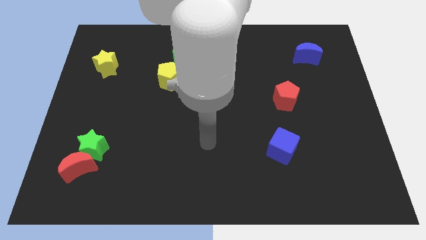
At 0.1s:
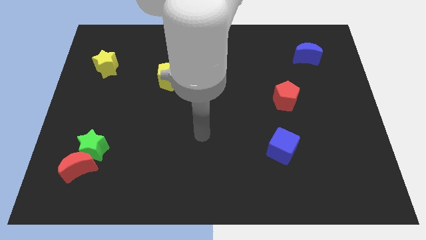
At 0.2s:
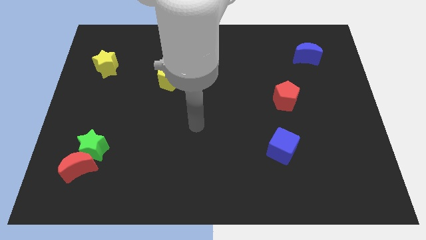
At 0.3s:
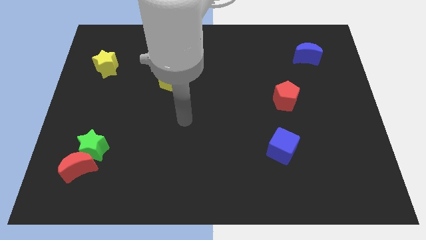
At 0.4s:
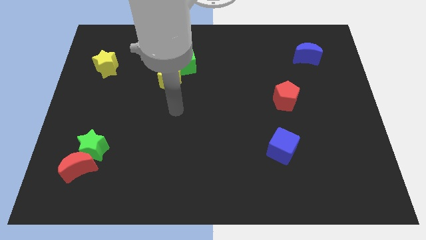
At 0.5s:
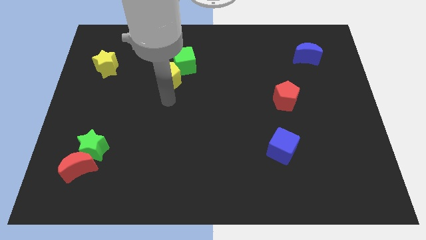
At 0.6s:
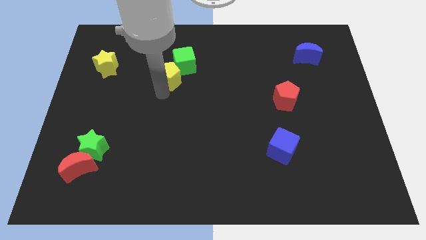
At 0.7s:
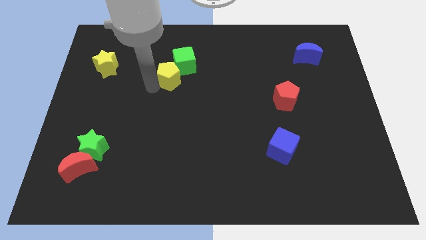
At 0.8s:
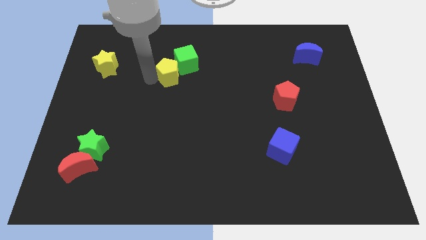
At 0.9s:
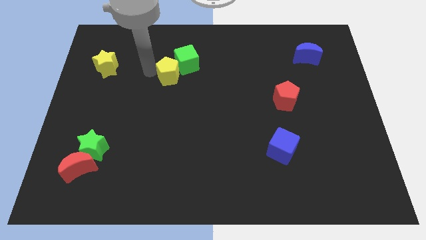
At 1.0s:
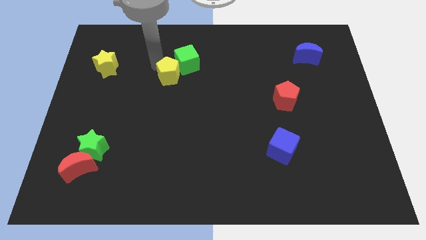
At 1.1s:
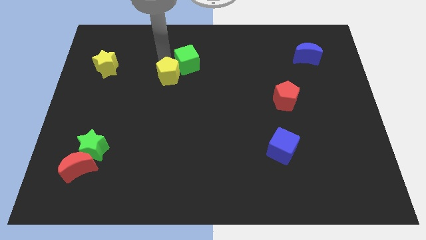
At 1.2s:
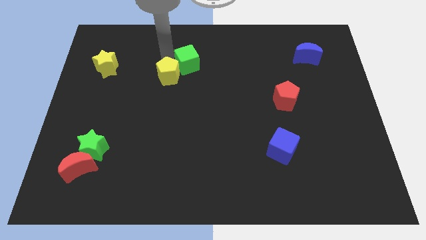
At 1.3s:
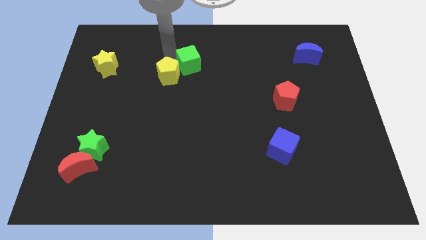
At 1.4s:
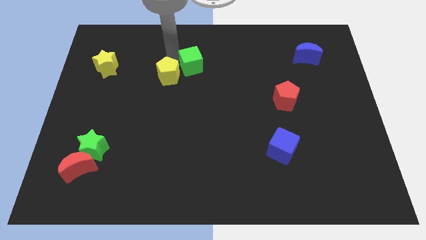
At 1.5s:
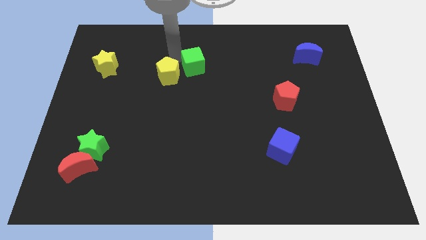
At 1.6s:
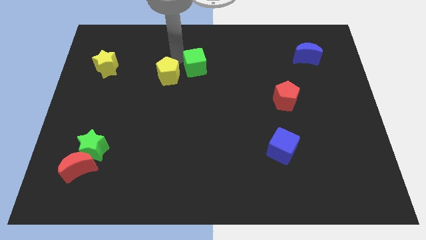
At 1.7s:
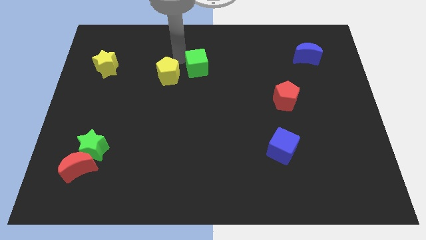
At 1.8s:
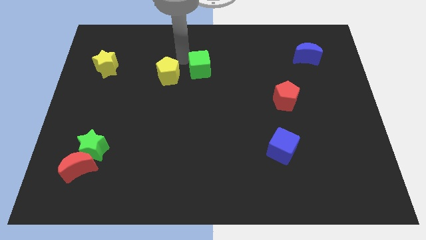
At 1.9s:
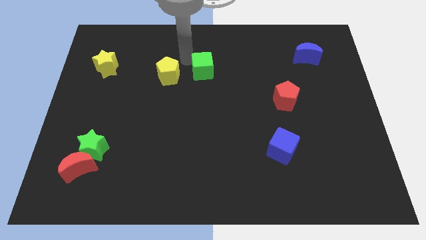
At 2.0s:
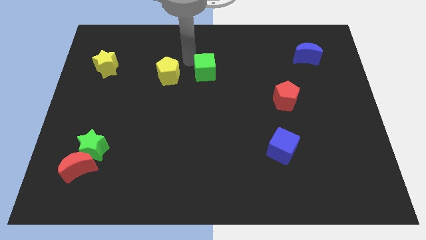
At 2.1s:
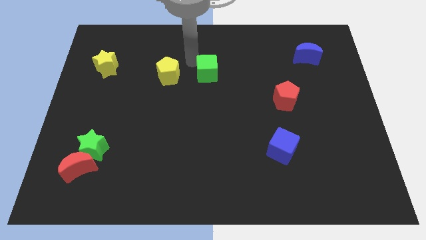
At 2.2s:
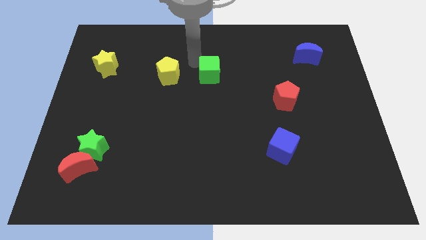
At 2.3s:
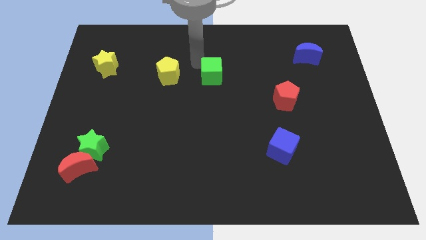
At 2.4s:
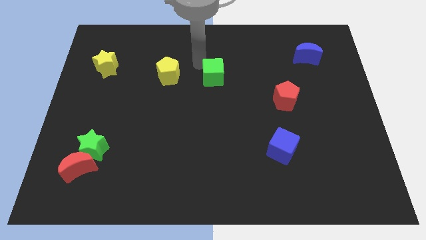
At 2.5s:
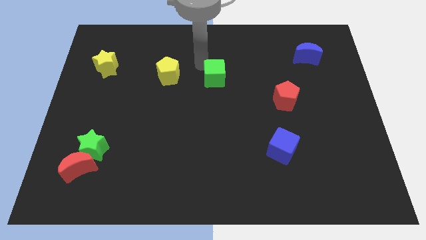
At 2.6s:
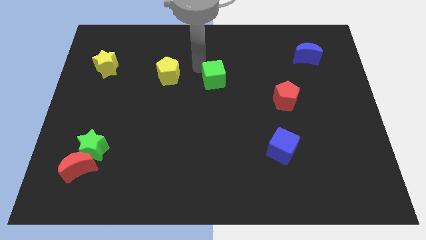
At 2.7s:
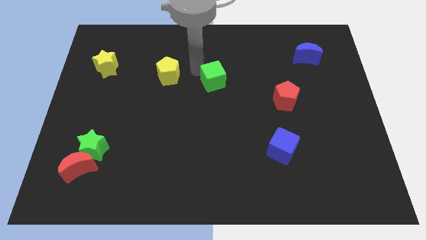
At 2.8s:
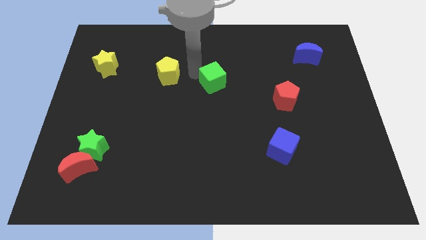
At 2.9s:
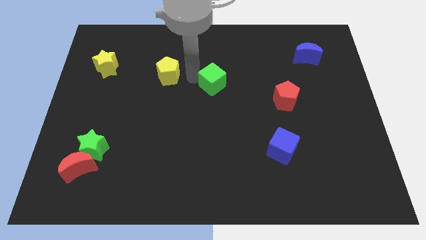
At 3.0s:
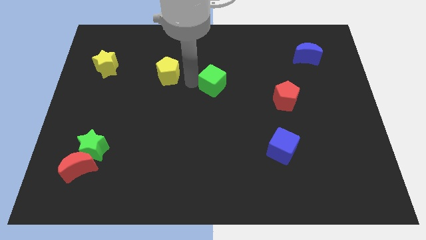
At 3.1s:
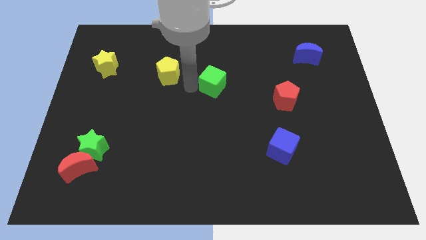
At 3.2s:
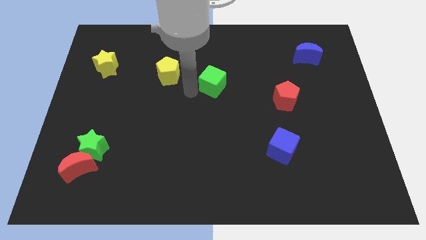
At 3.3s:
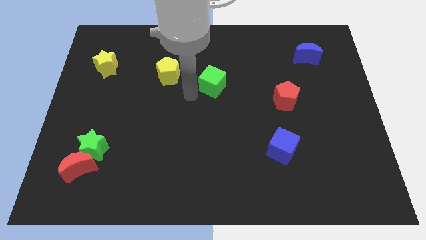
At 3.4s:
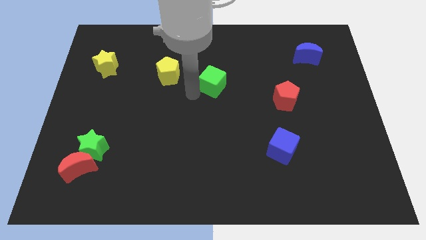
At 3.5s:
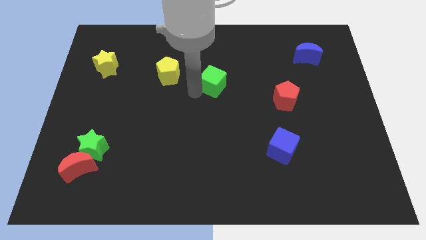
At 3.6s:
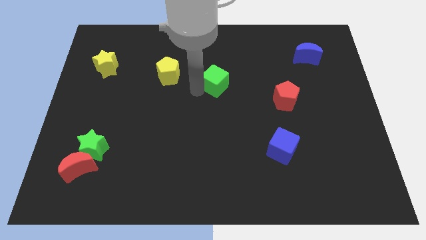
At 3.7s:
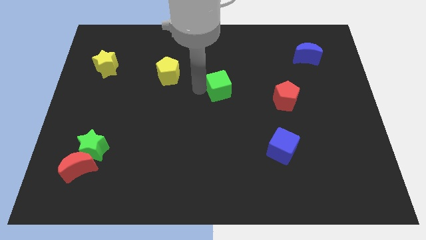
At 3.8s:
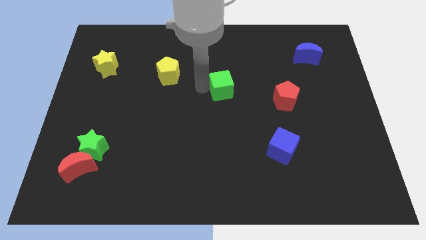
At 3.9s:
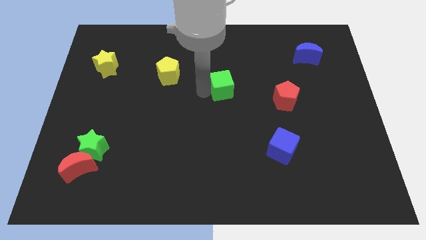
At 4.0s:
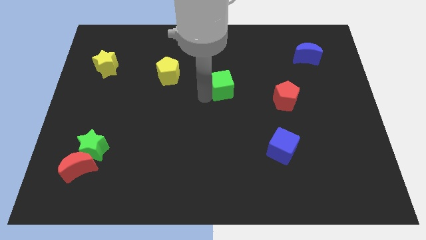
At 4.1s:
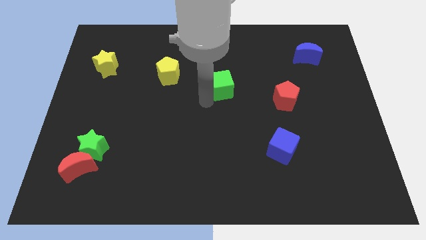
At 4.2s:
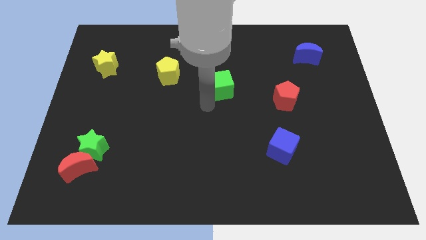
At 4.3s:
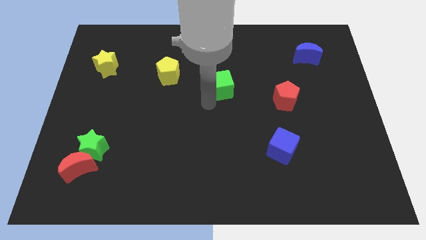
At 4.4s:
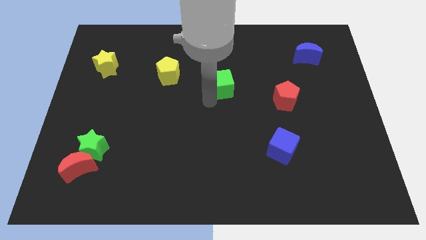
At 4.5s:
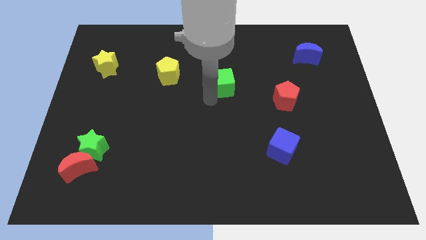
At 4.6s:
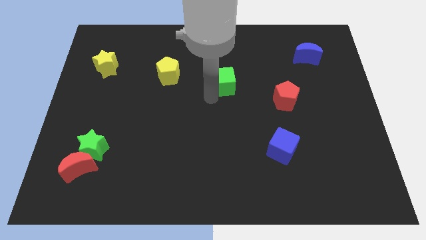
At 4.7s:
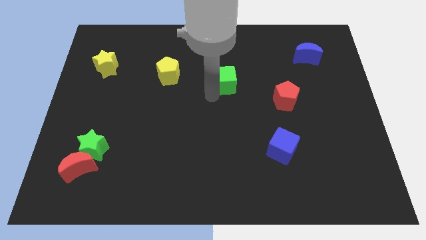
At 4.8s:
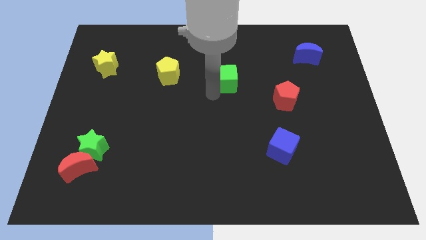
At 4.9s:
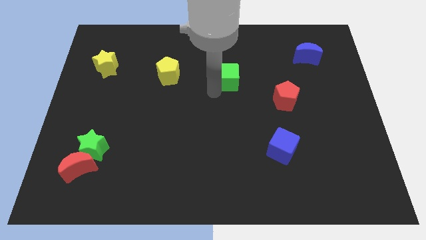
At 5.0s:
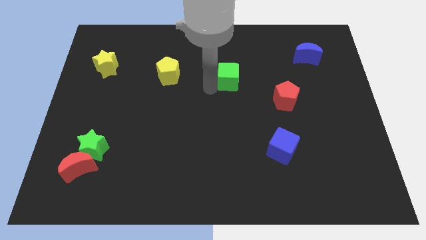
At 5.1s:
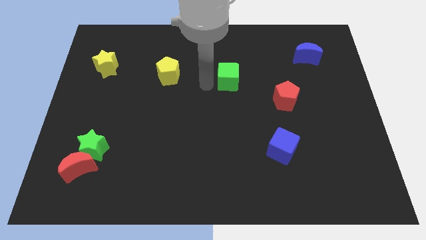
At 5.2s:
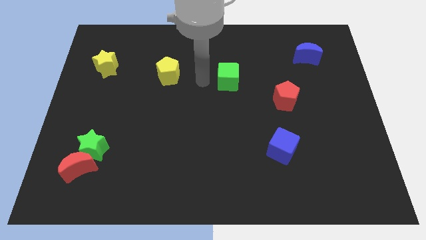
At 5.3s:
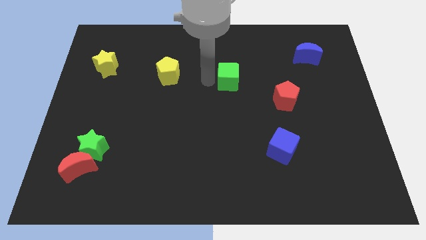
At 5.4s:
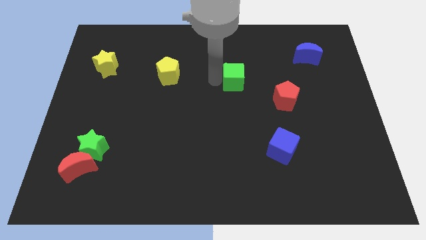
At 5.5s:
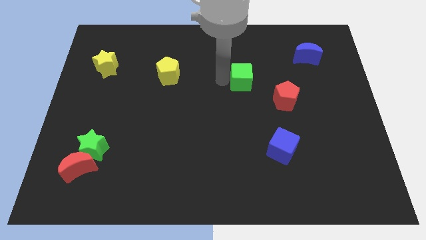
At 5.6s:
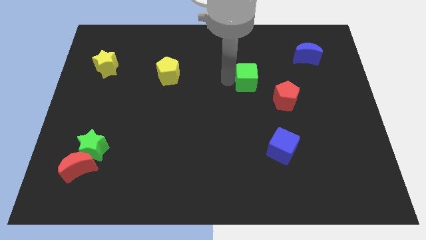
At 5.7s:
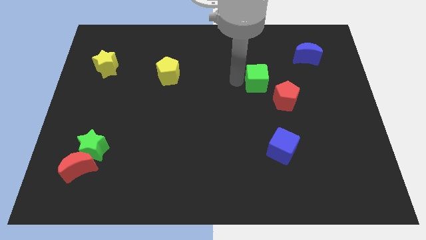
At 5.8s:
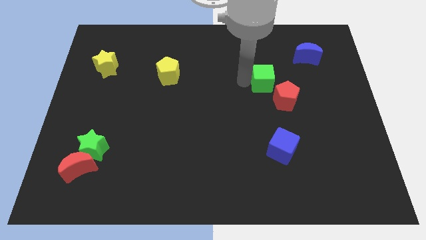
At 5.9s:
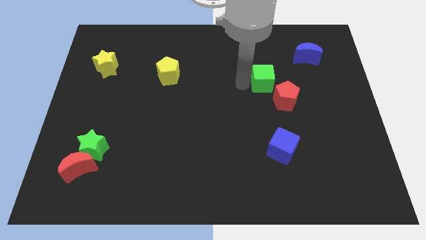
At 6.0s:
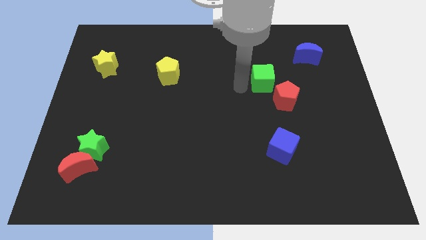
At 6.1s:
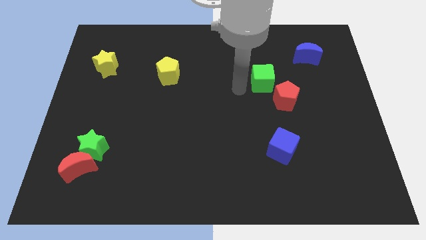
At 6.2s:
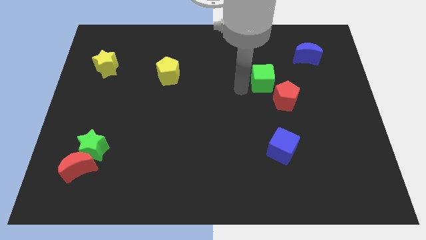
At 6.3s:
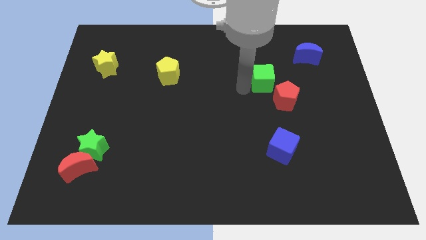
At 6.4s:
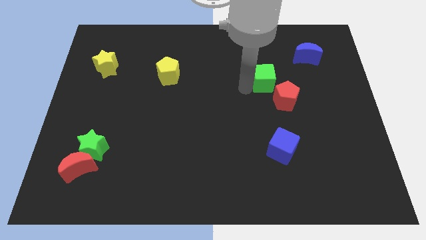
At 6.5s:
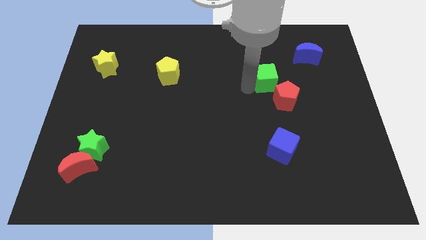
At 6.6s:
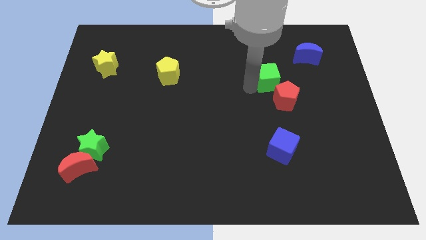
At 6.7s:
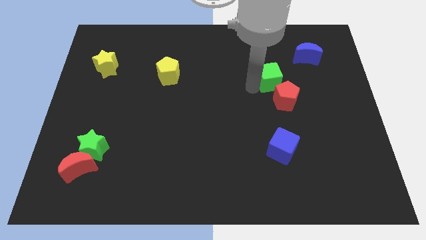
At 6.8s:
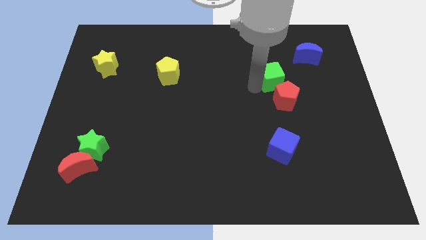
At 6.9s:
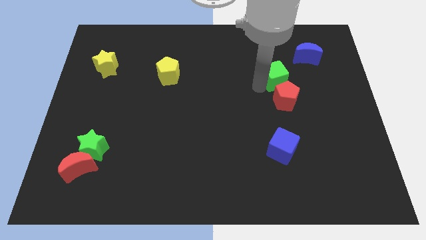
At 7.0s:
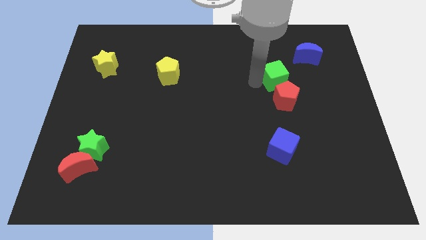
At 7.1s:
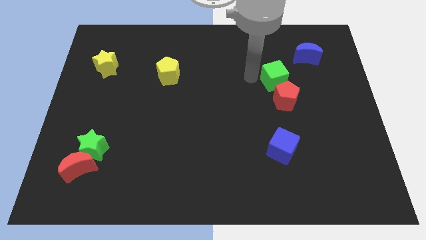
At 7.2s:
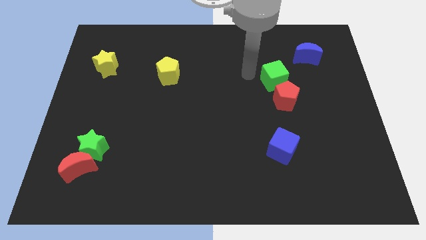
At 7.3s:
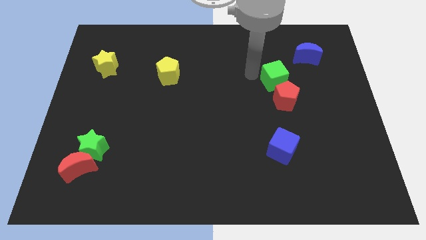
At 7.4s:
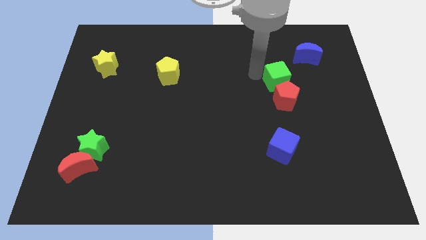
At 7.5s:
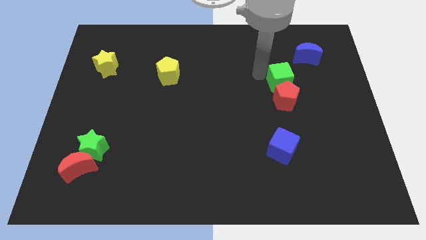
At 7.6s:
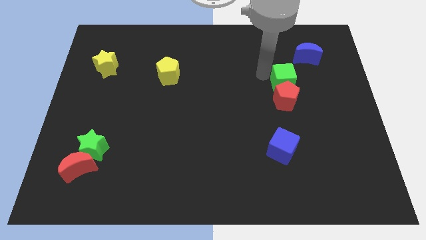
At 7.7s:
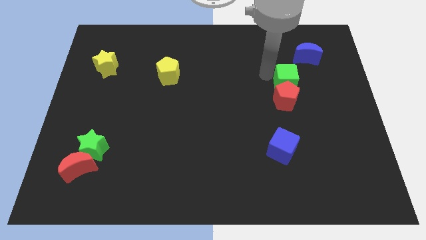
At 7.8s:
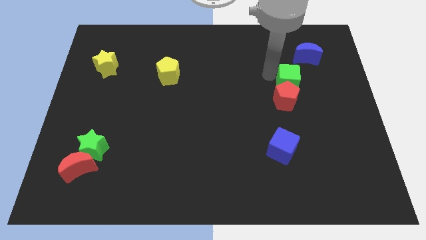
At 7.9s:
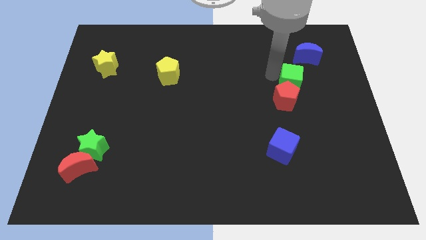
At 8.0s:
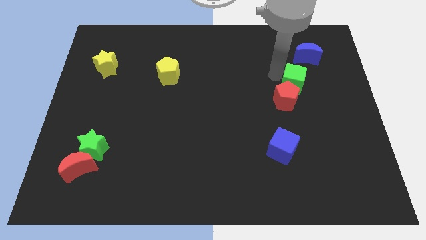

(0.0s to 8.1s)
move the green cube below the blue moon
